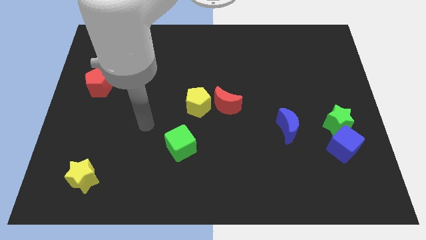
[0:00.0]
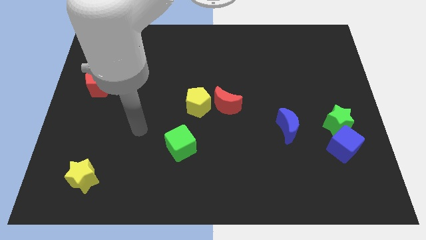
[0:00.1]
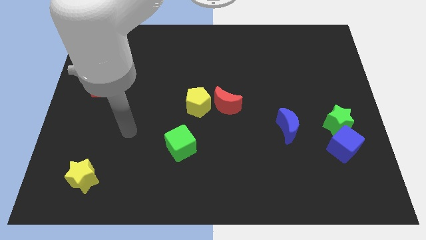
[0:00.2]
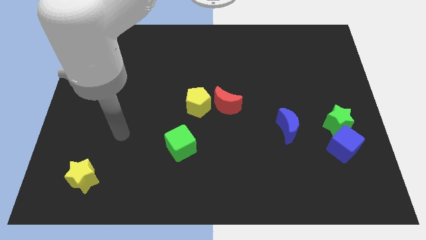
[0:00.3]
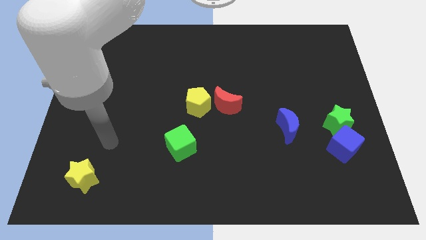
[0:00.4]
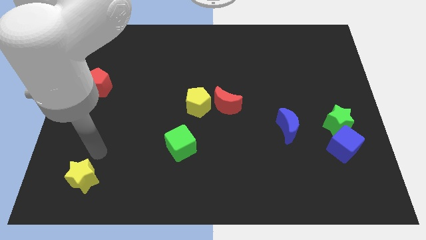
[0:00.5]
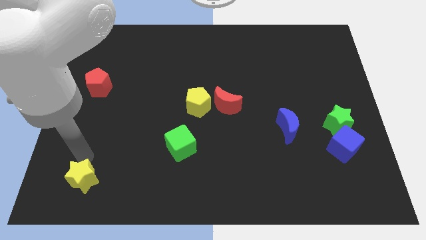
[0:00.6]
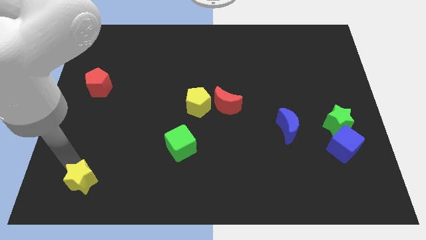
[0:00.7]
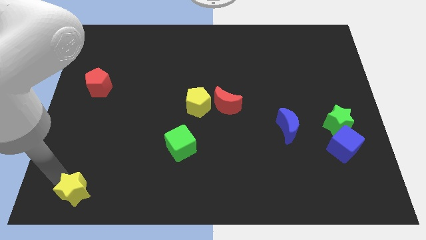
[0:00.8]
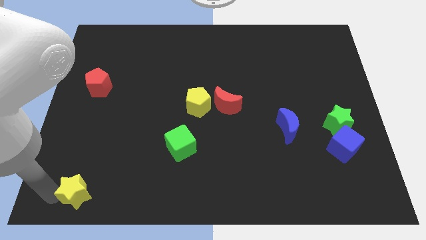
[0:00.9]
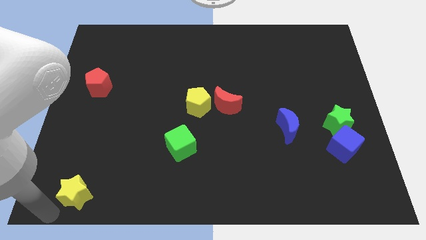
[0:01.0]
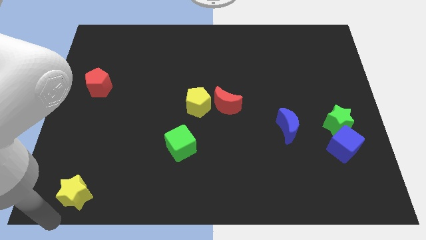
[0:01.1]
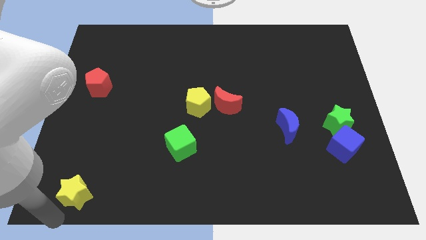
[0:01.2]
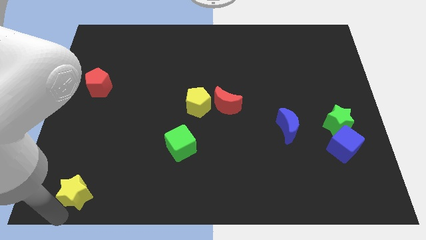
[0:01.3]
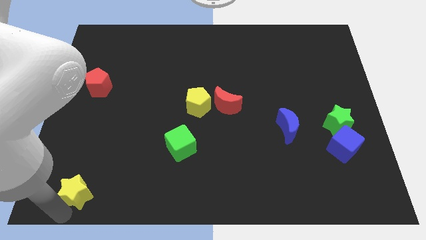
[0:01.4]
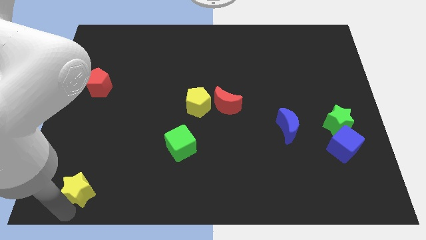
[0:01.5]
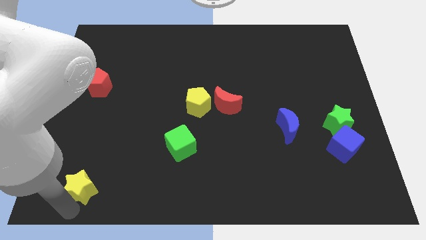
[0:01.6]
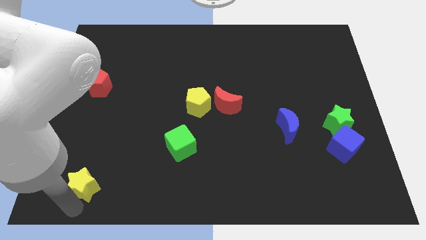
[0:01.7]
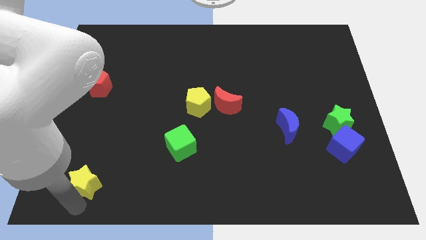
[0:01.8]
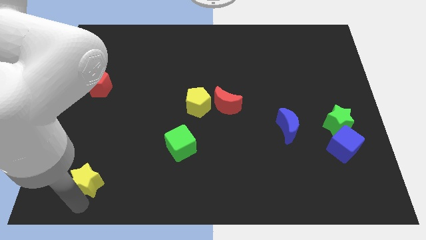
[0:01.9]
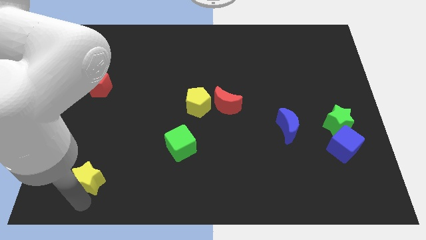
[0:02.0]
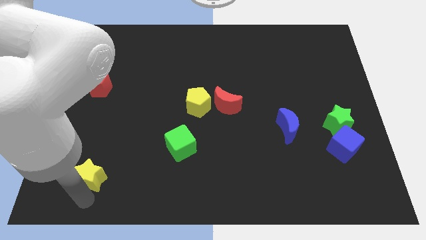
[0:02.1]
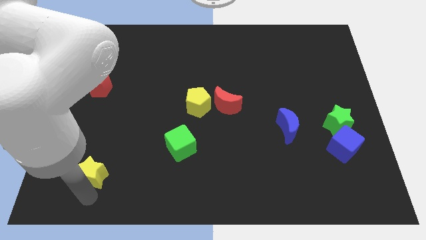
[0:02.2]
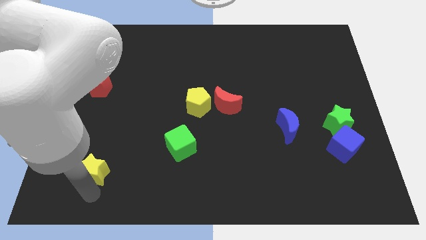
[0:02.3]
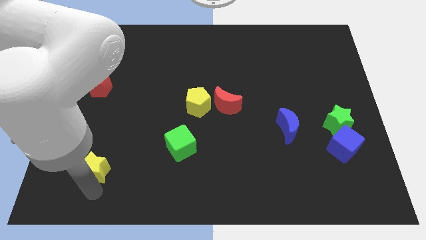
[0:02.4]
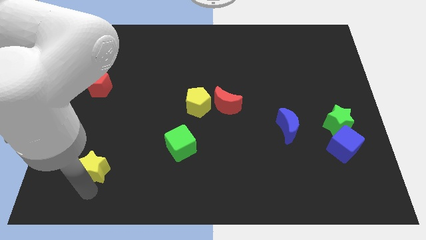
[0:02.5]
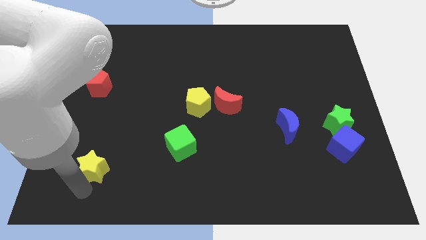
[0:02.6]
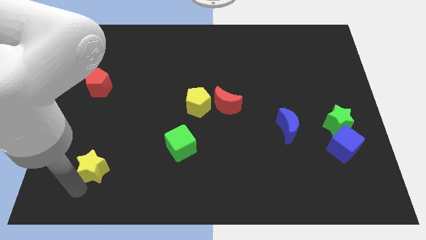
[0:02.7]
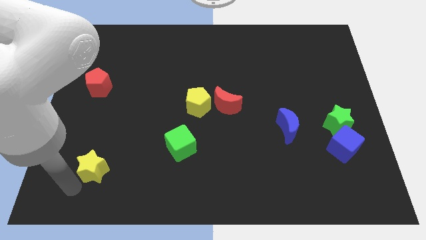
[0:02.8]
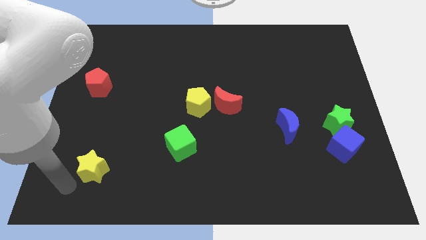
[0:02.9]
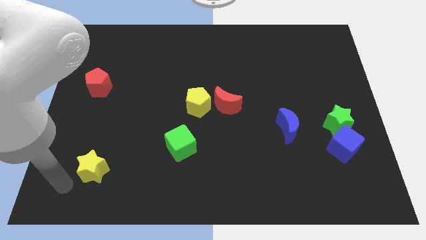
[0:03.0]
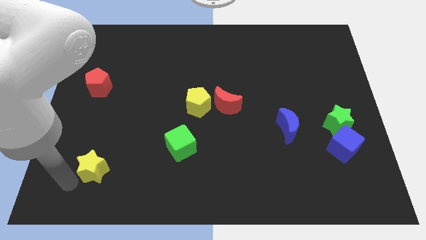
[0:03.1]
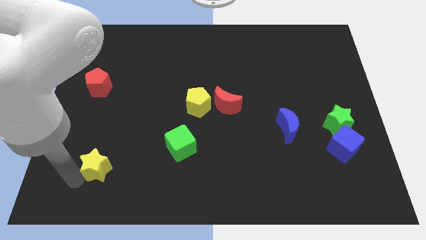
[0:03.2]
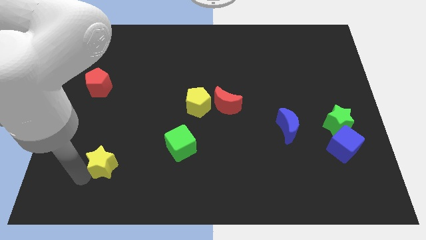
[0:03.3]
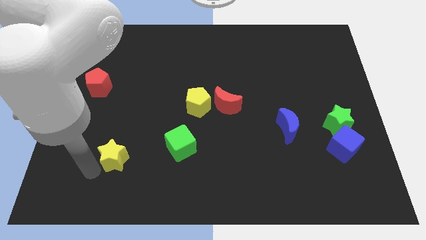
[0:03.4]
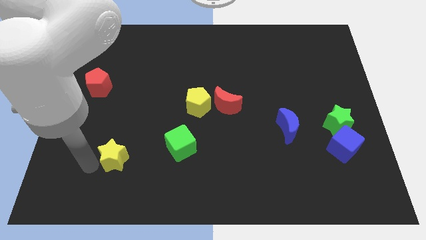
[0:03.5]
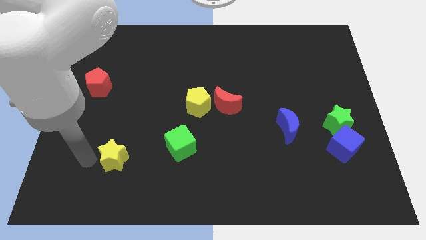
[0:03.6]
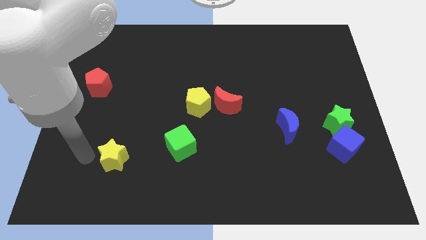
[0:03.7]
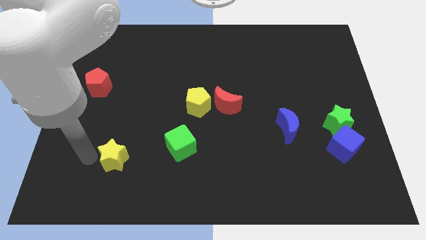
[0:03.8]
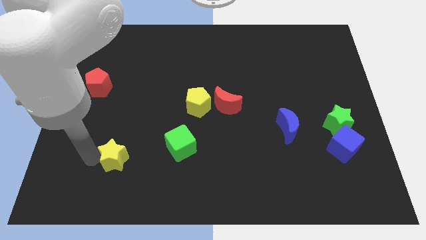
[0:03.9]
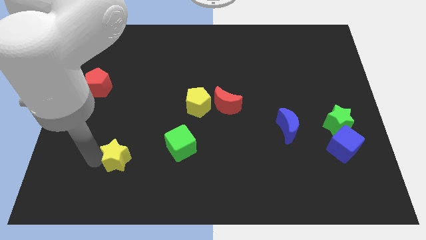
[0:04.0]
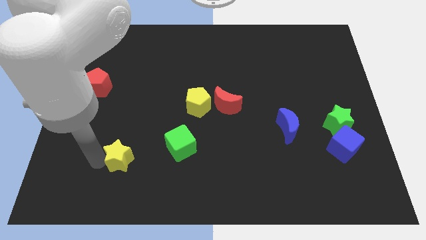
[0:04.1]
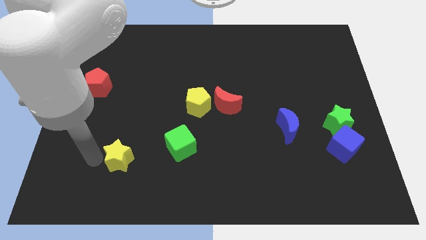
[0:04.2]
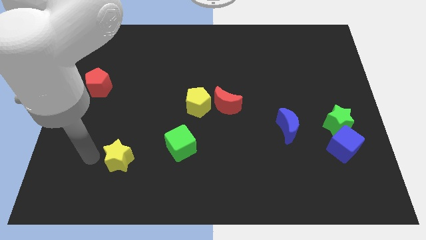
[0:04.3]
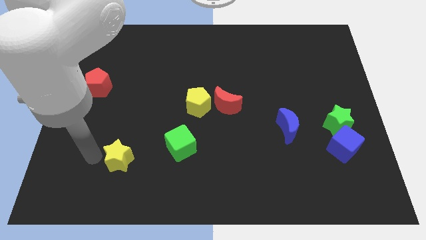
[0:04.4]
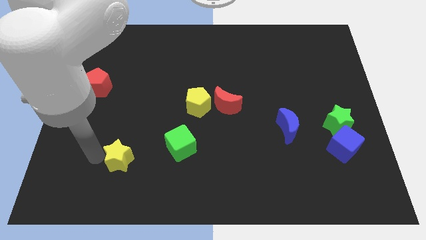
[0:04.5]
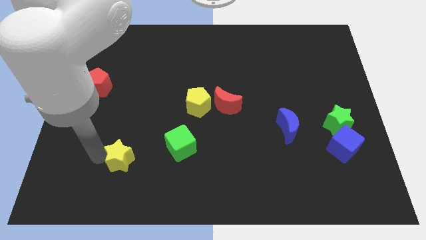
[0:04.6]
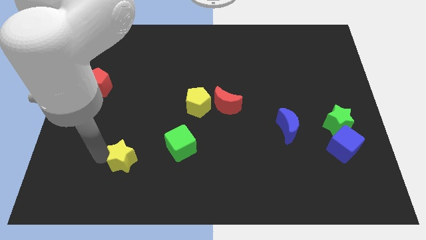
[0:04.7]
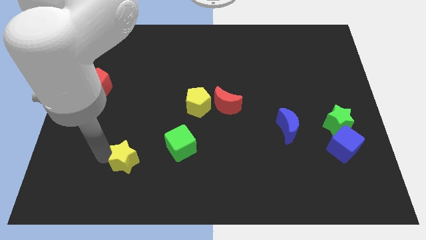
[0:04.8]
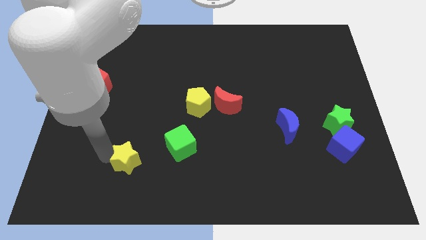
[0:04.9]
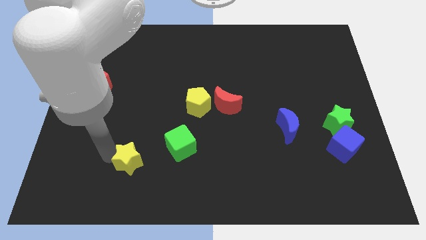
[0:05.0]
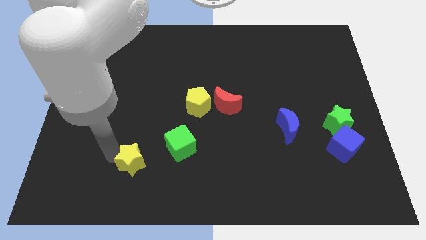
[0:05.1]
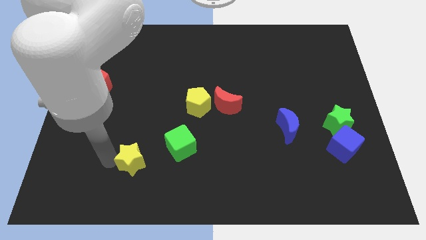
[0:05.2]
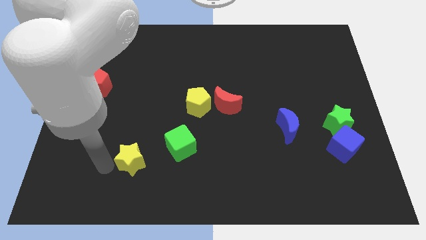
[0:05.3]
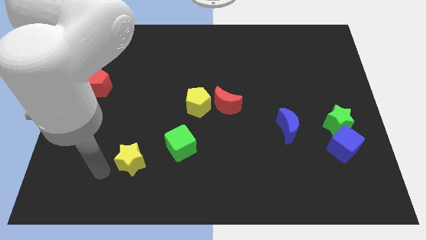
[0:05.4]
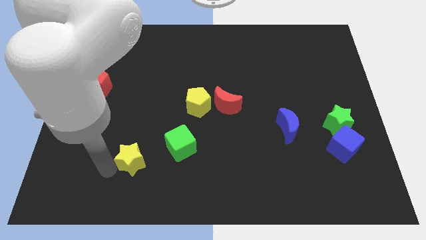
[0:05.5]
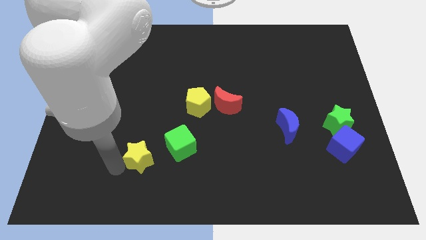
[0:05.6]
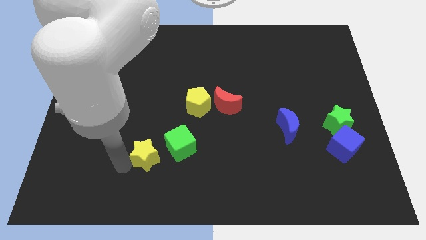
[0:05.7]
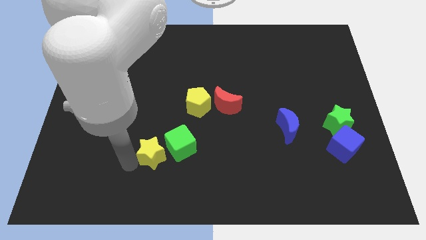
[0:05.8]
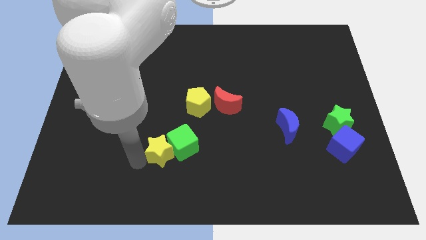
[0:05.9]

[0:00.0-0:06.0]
push the yellow star next to the green cube

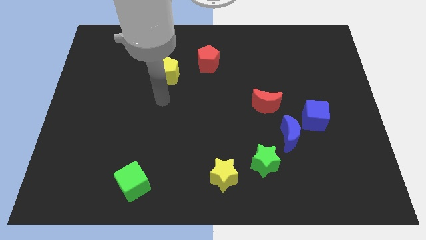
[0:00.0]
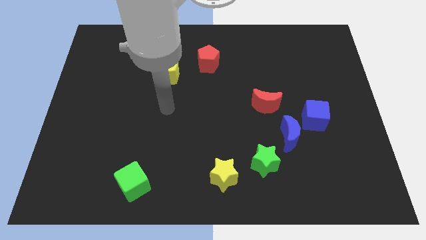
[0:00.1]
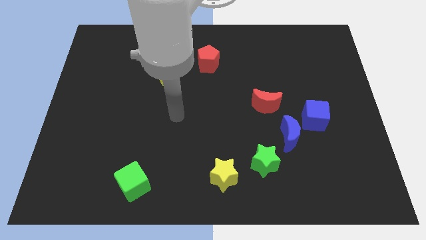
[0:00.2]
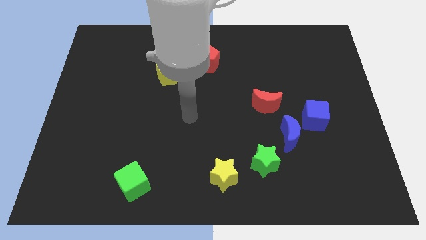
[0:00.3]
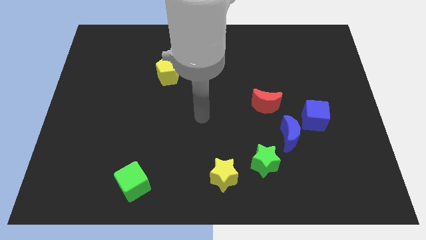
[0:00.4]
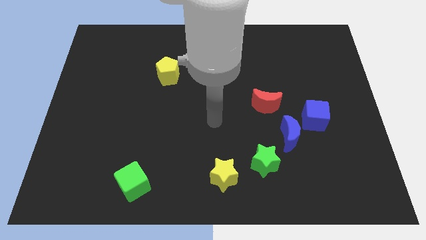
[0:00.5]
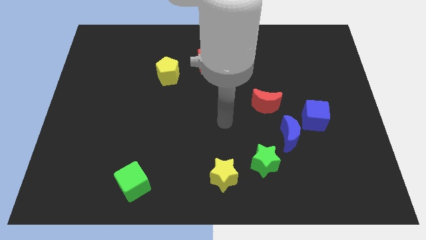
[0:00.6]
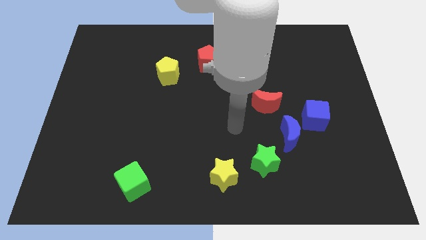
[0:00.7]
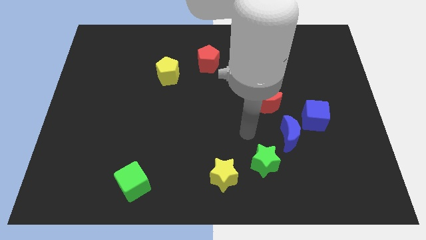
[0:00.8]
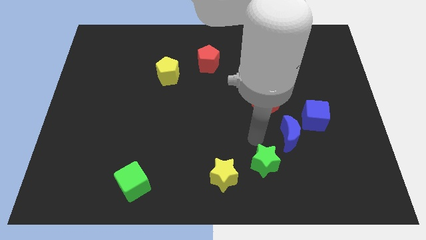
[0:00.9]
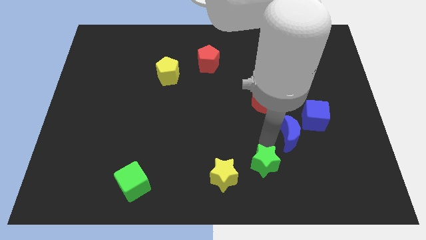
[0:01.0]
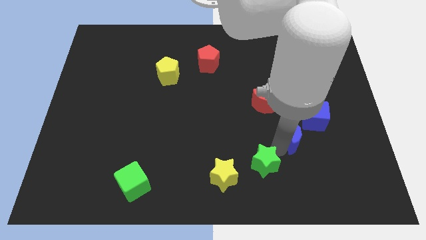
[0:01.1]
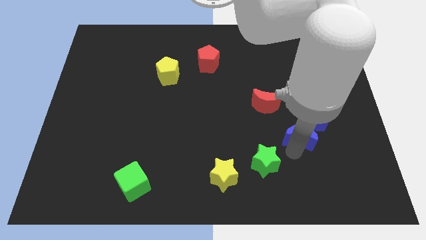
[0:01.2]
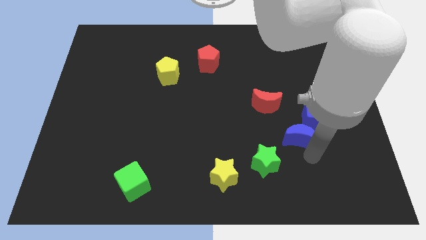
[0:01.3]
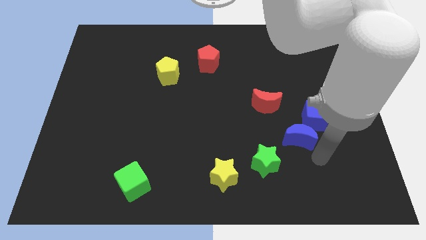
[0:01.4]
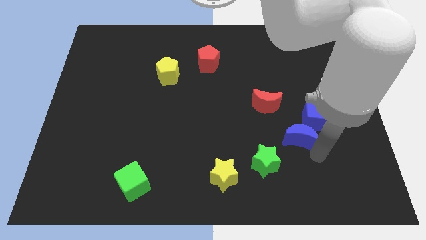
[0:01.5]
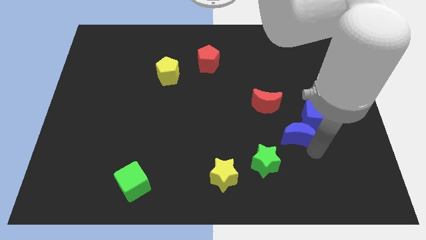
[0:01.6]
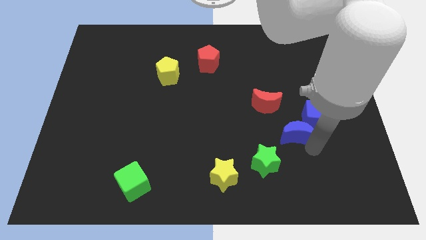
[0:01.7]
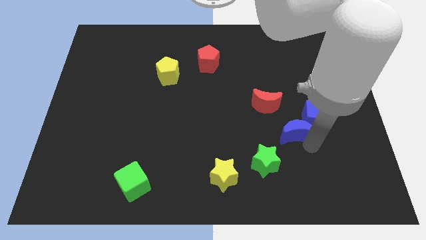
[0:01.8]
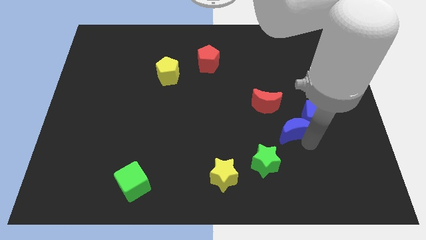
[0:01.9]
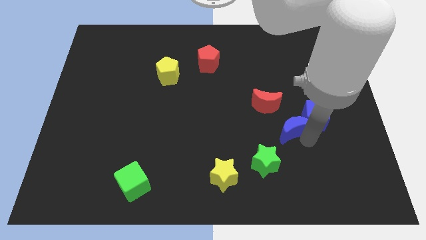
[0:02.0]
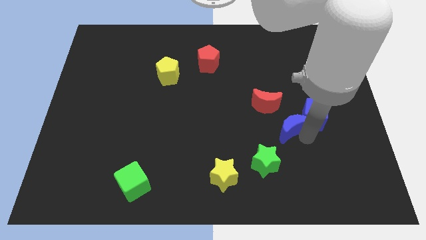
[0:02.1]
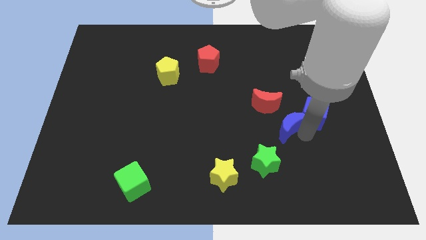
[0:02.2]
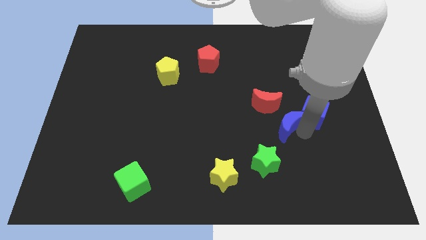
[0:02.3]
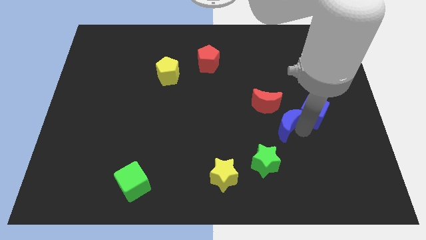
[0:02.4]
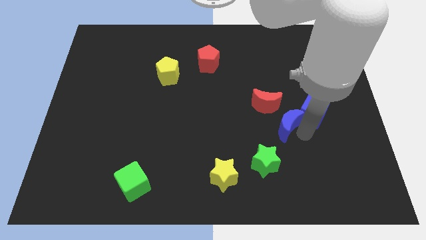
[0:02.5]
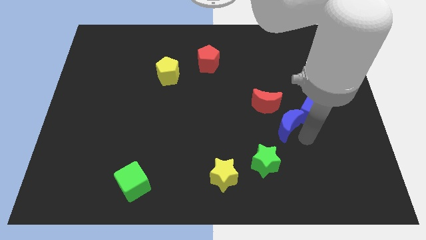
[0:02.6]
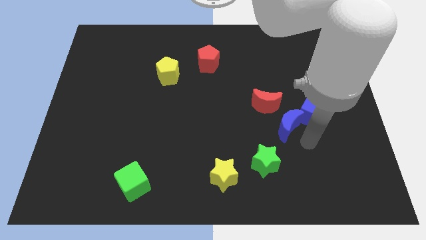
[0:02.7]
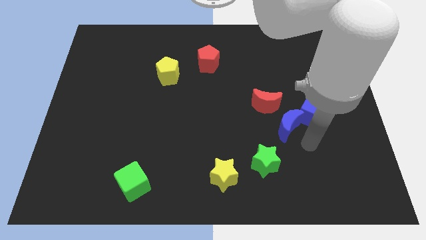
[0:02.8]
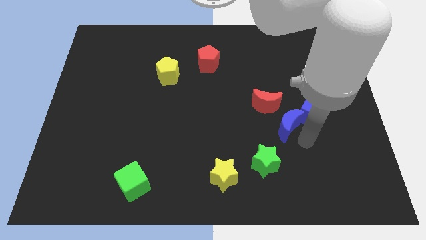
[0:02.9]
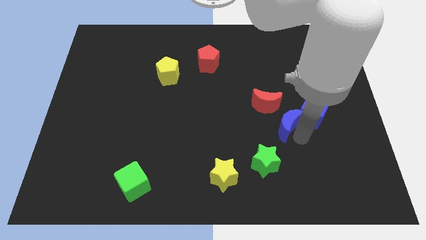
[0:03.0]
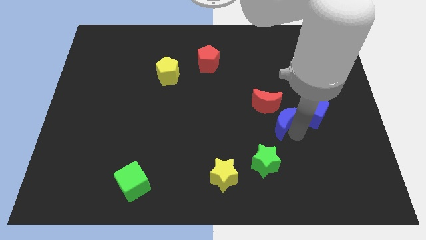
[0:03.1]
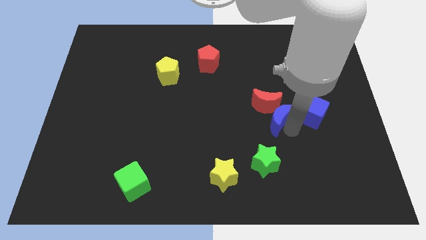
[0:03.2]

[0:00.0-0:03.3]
put the blue moon close to the red moon
